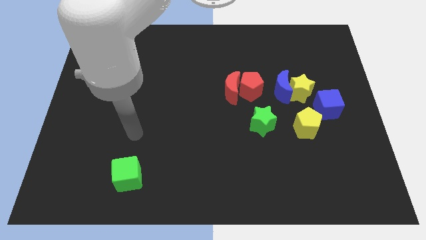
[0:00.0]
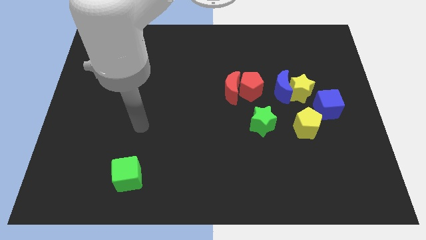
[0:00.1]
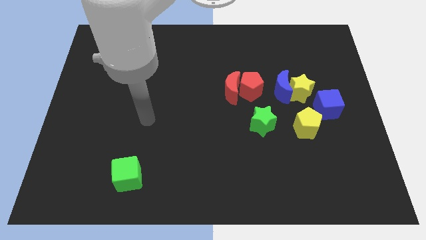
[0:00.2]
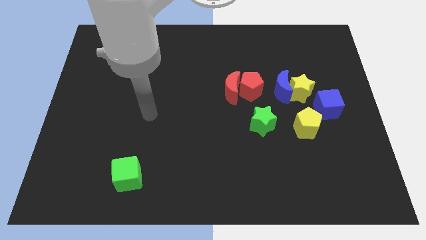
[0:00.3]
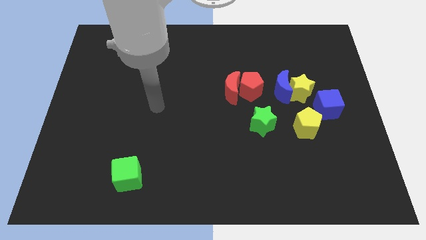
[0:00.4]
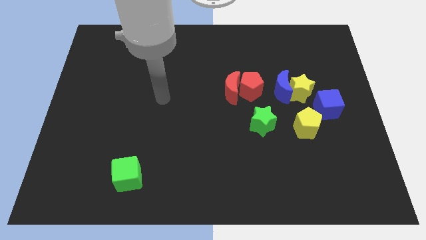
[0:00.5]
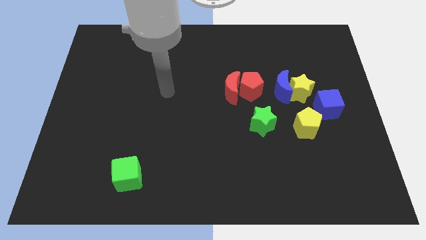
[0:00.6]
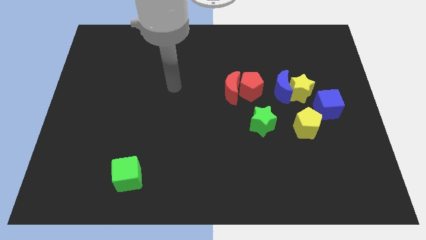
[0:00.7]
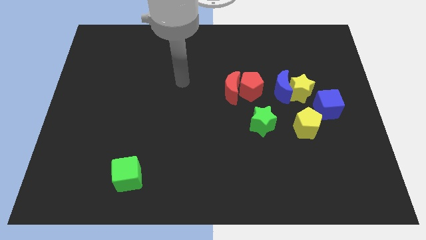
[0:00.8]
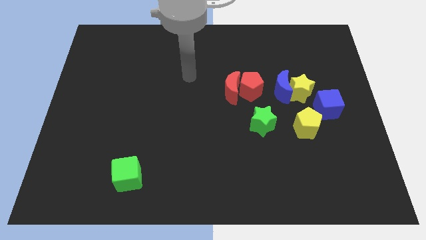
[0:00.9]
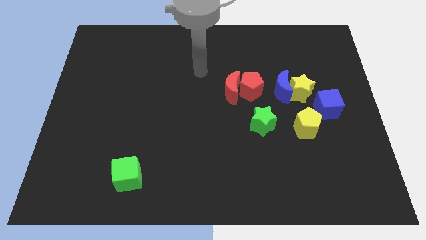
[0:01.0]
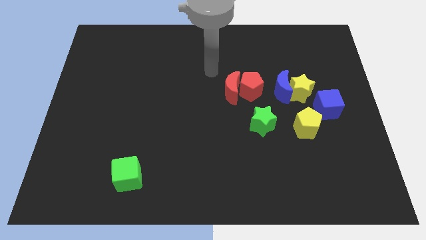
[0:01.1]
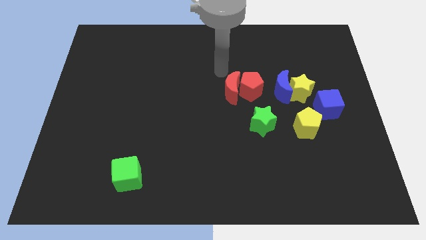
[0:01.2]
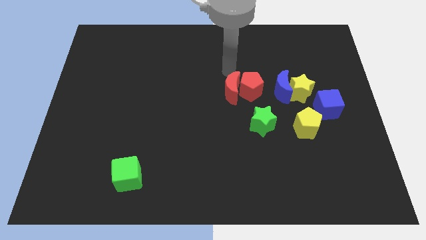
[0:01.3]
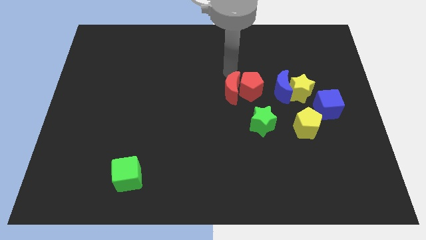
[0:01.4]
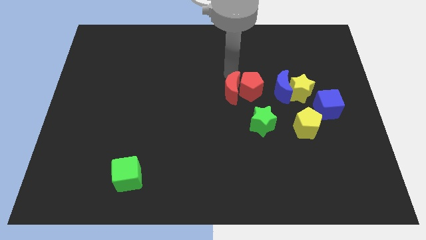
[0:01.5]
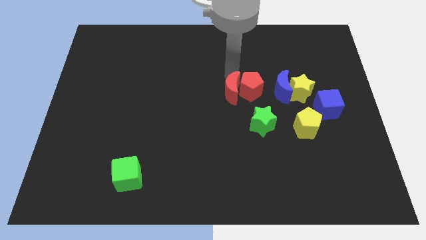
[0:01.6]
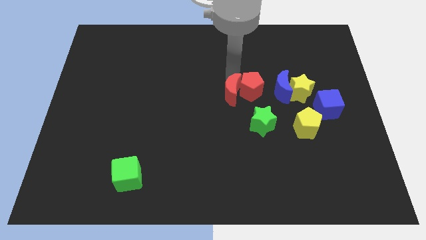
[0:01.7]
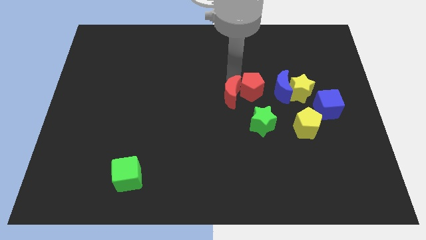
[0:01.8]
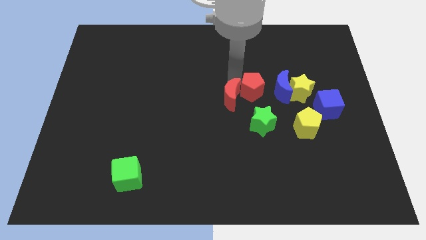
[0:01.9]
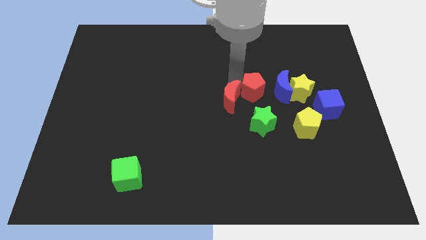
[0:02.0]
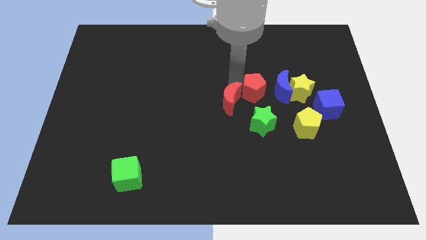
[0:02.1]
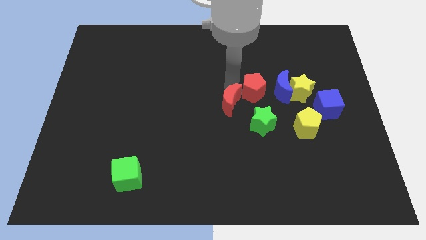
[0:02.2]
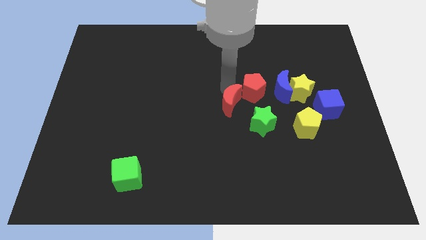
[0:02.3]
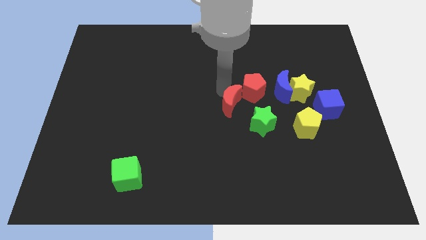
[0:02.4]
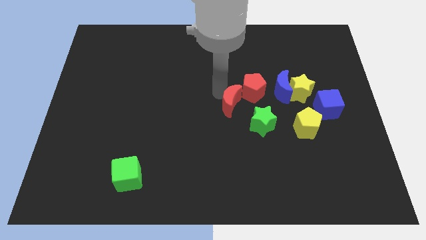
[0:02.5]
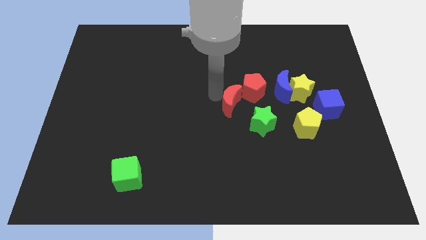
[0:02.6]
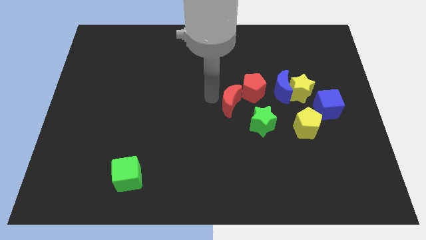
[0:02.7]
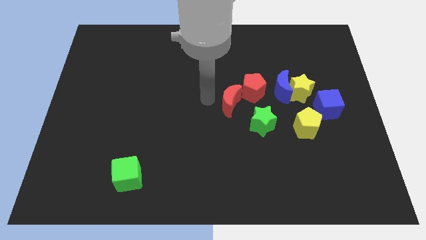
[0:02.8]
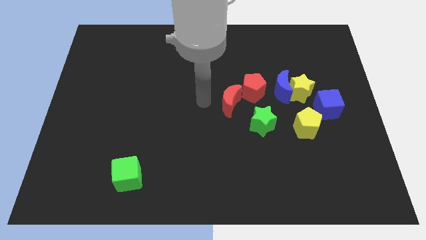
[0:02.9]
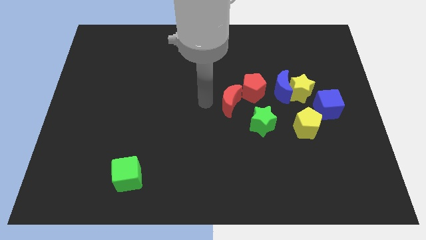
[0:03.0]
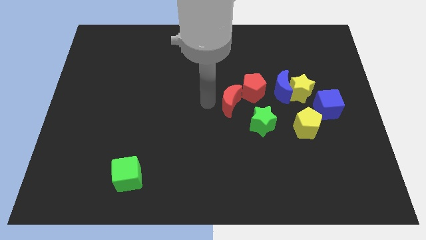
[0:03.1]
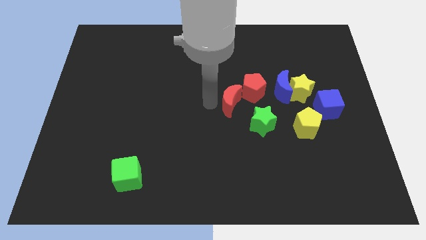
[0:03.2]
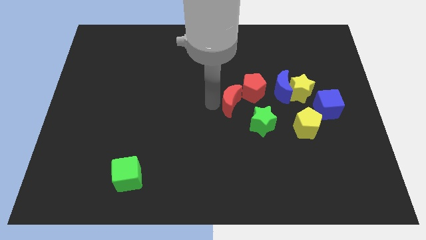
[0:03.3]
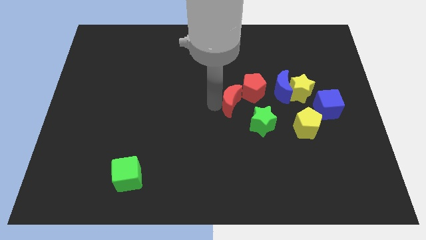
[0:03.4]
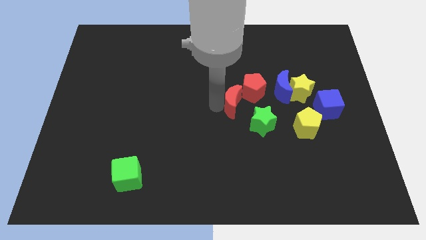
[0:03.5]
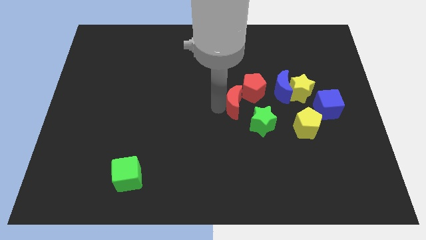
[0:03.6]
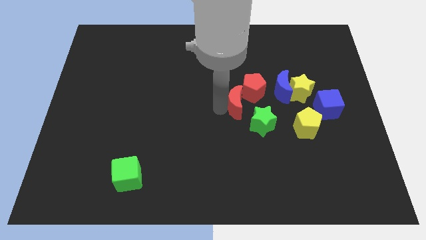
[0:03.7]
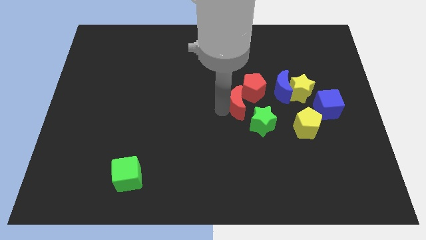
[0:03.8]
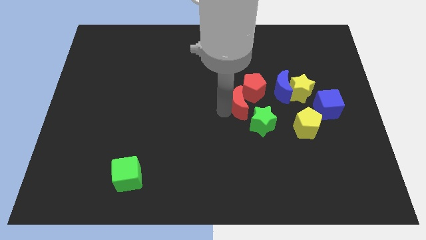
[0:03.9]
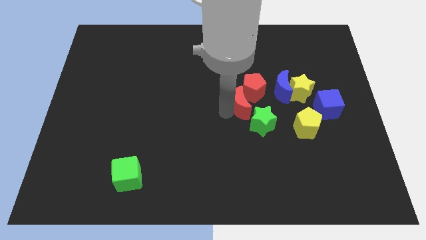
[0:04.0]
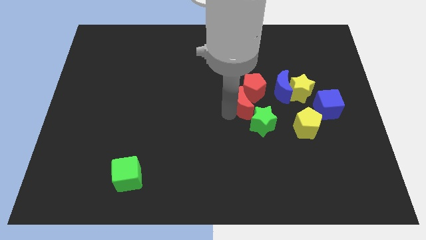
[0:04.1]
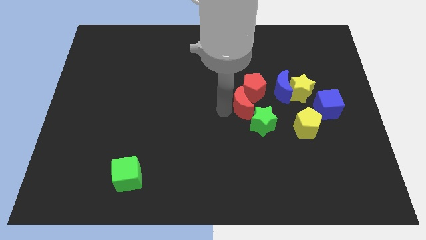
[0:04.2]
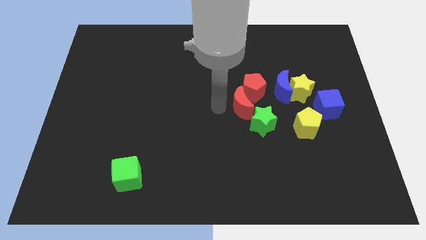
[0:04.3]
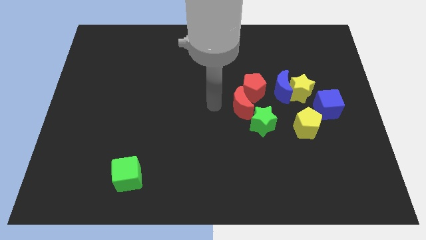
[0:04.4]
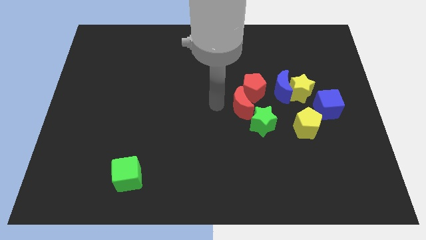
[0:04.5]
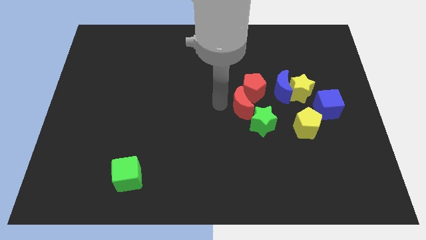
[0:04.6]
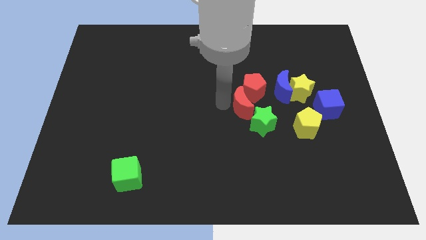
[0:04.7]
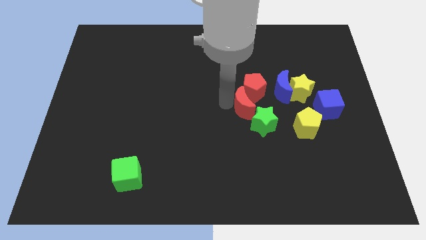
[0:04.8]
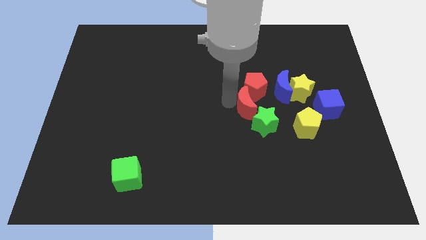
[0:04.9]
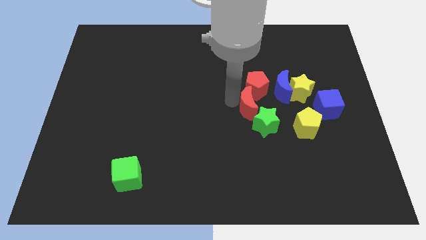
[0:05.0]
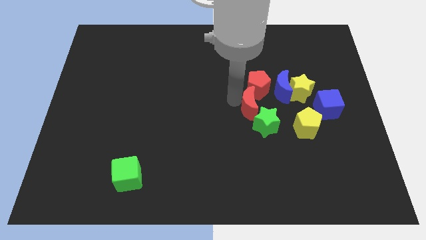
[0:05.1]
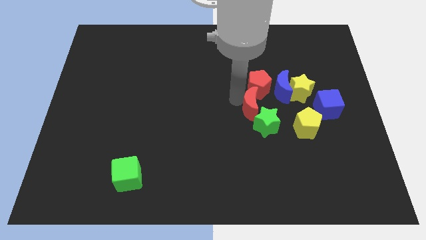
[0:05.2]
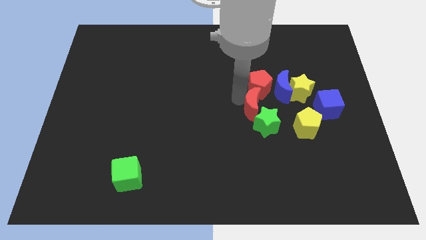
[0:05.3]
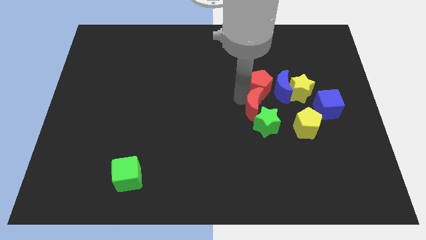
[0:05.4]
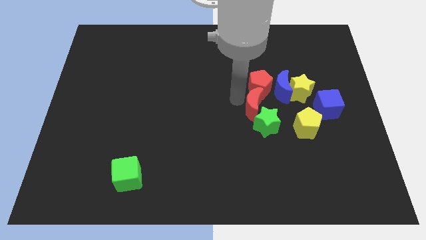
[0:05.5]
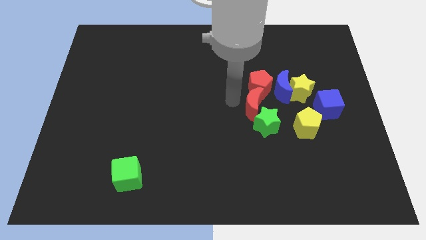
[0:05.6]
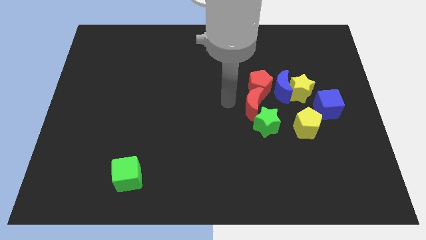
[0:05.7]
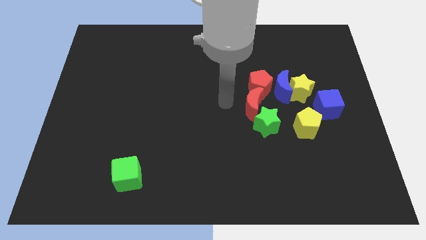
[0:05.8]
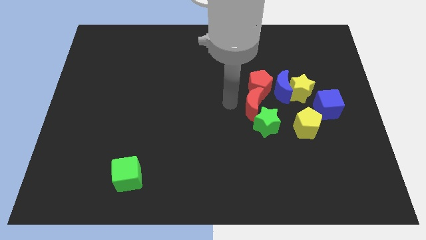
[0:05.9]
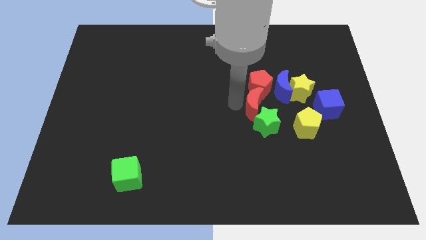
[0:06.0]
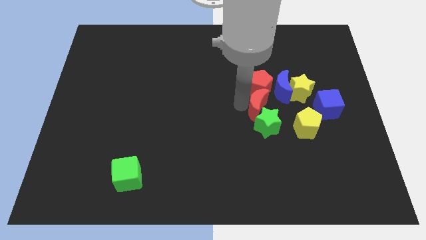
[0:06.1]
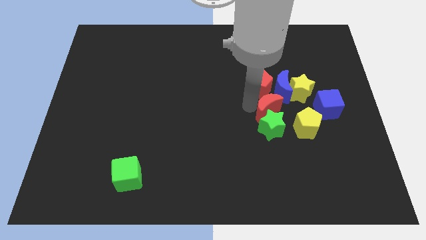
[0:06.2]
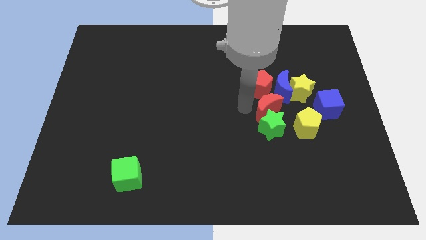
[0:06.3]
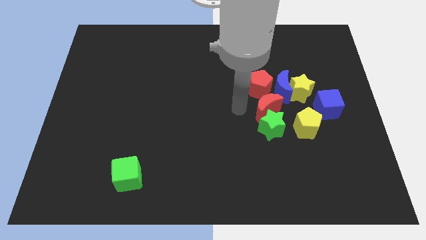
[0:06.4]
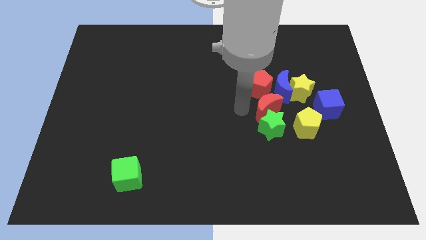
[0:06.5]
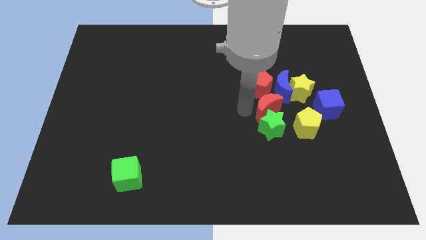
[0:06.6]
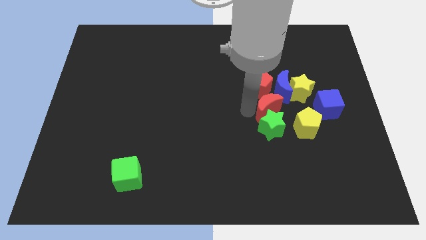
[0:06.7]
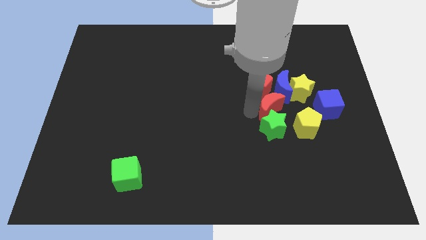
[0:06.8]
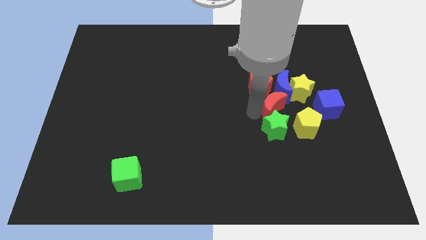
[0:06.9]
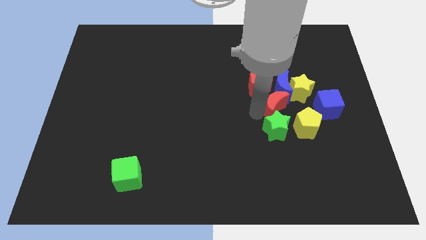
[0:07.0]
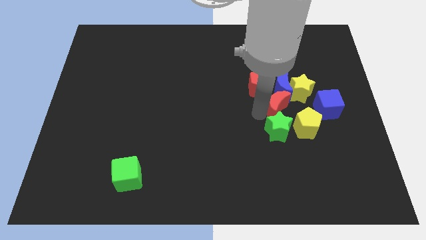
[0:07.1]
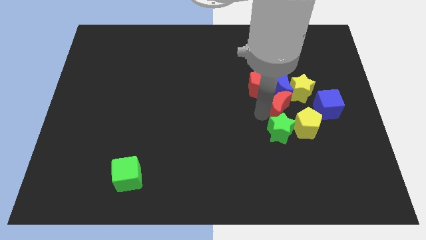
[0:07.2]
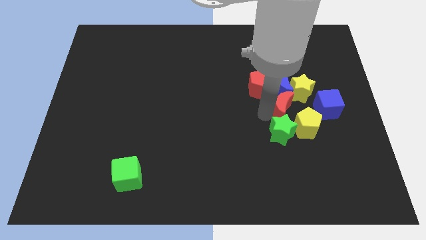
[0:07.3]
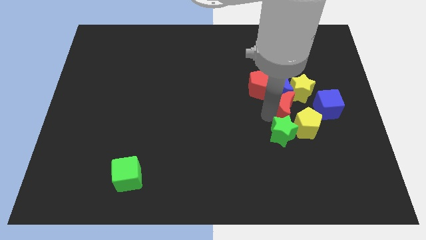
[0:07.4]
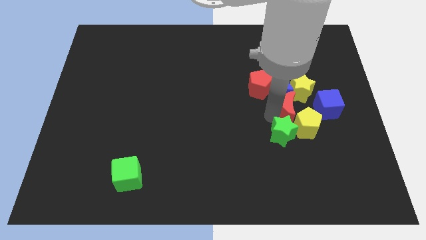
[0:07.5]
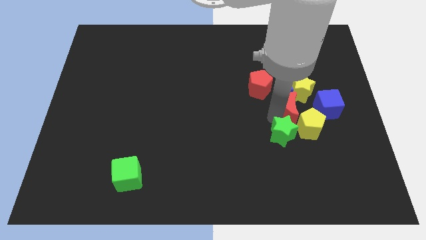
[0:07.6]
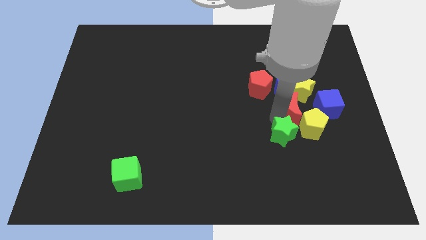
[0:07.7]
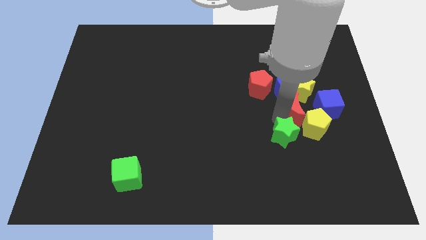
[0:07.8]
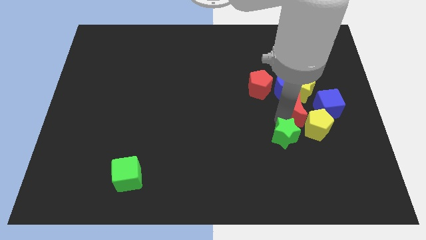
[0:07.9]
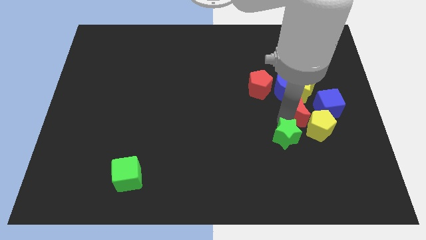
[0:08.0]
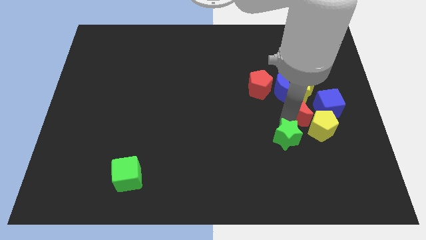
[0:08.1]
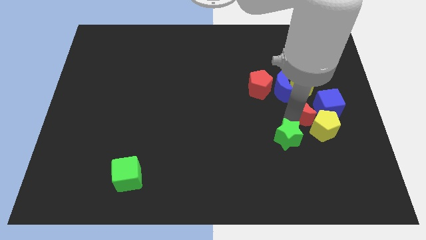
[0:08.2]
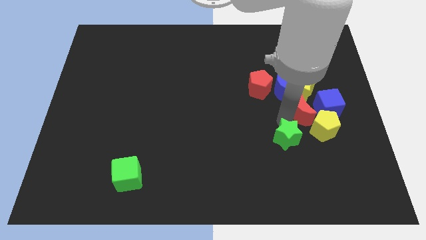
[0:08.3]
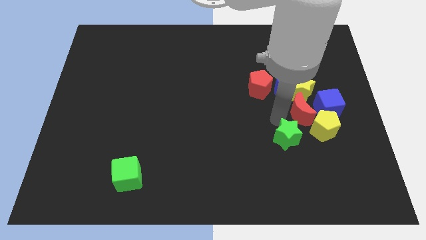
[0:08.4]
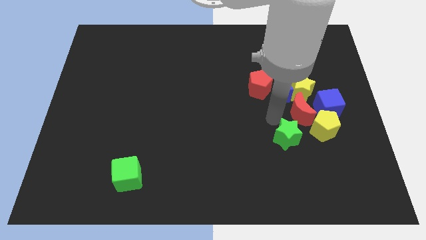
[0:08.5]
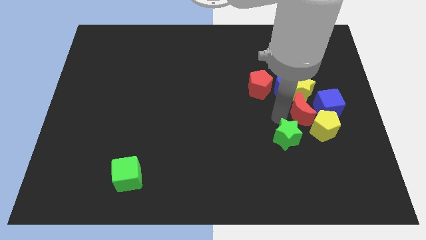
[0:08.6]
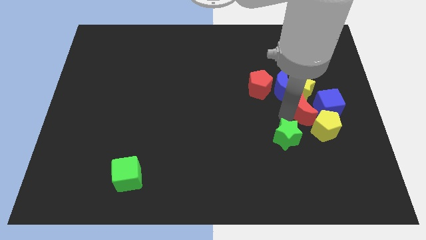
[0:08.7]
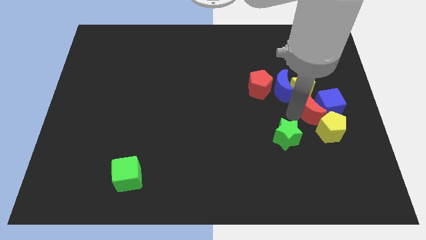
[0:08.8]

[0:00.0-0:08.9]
put the red moon next to the blue cube
